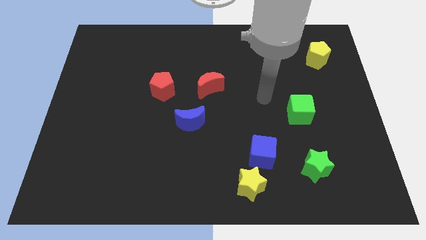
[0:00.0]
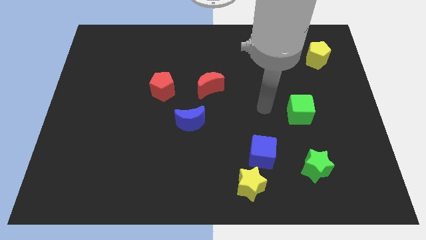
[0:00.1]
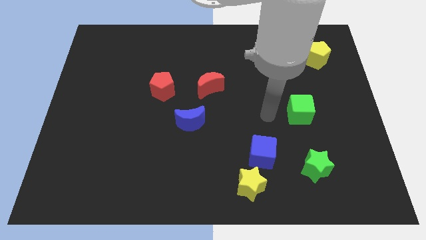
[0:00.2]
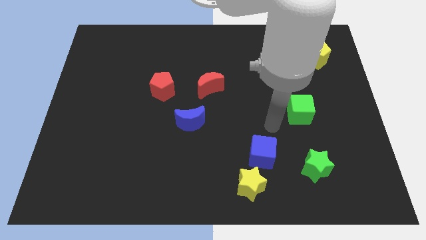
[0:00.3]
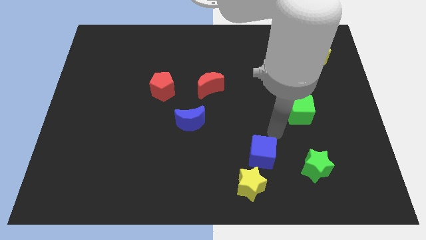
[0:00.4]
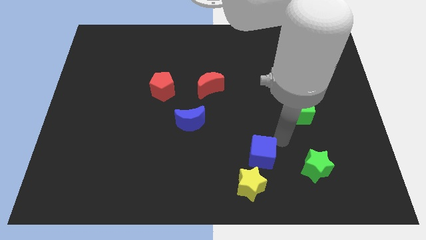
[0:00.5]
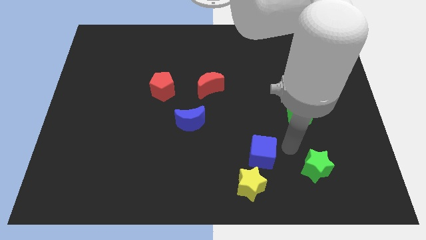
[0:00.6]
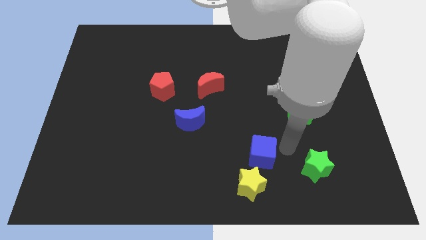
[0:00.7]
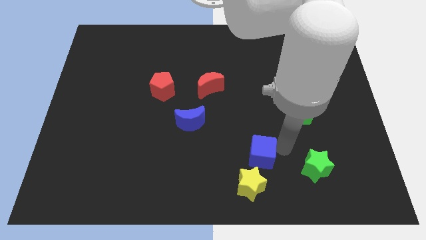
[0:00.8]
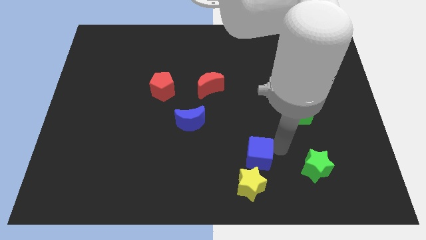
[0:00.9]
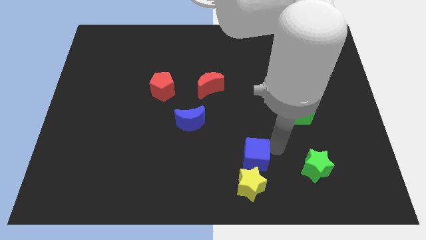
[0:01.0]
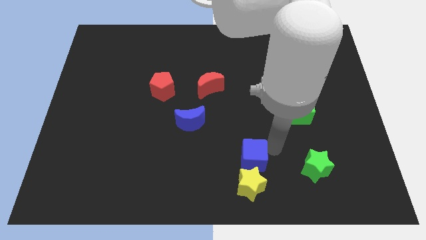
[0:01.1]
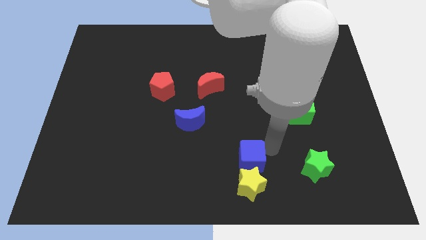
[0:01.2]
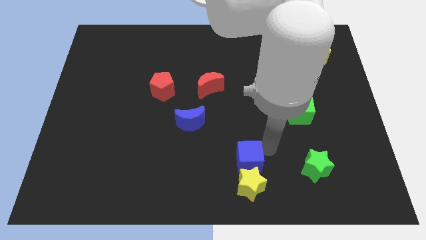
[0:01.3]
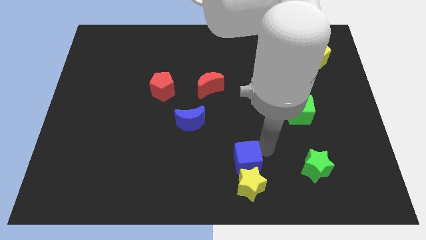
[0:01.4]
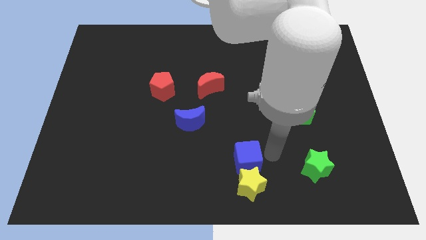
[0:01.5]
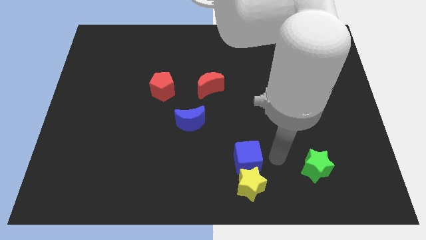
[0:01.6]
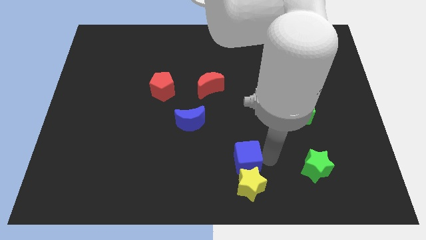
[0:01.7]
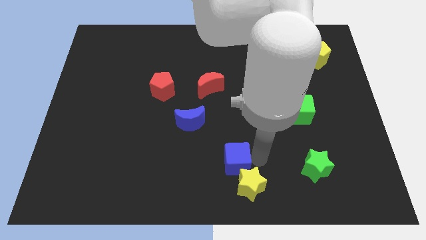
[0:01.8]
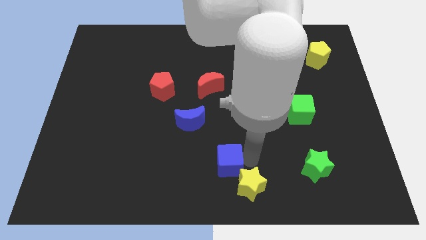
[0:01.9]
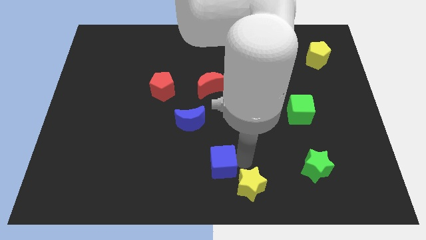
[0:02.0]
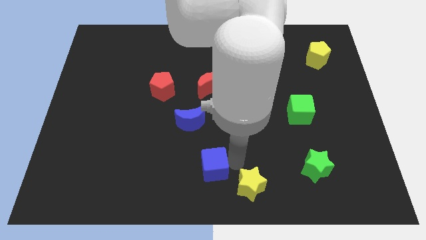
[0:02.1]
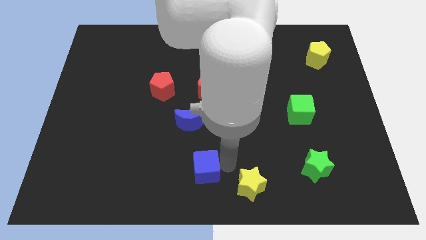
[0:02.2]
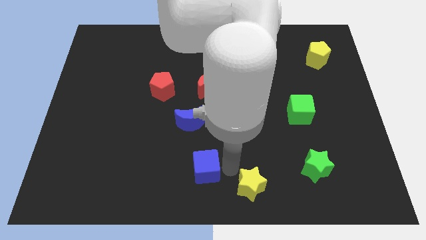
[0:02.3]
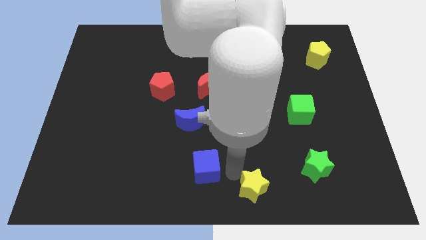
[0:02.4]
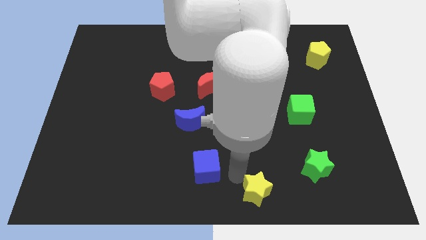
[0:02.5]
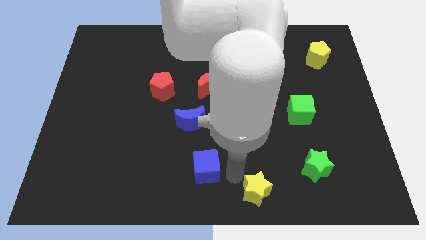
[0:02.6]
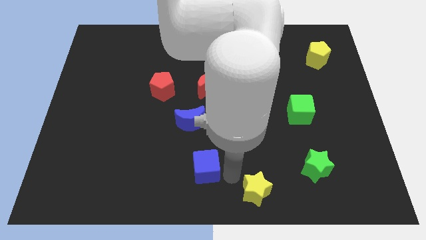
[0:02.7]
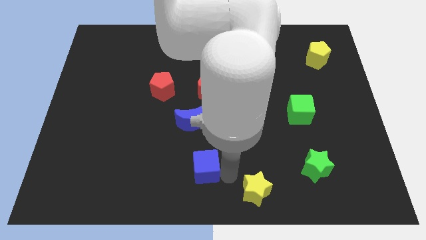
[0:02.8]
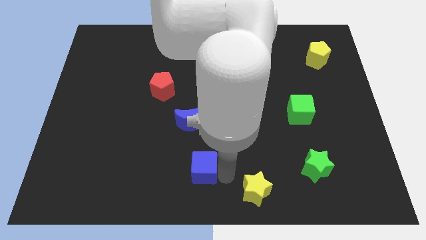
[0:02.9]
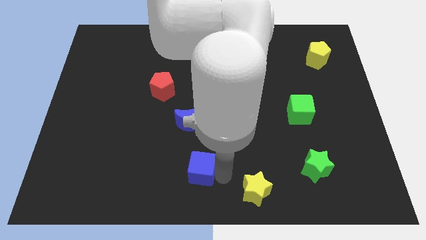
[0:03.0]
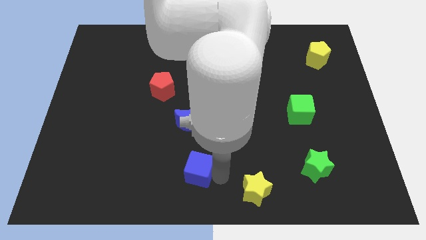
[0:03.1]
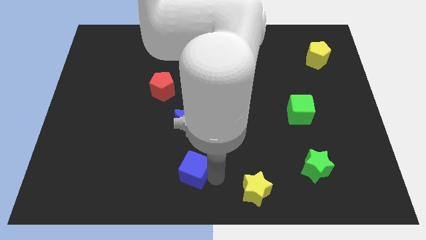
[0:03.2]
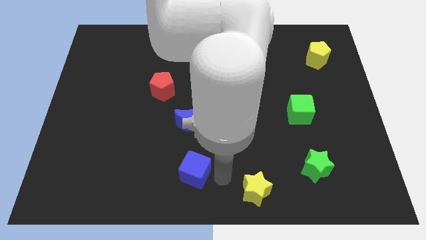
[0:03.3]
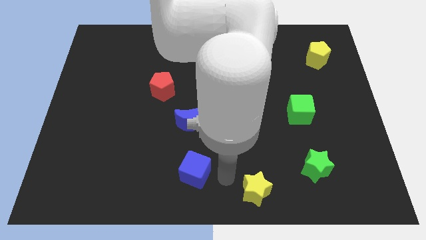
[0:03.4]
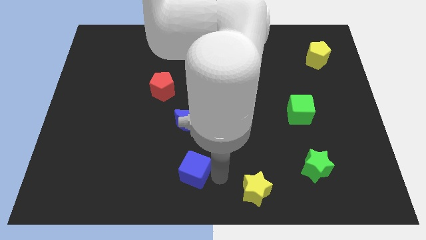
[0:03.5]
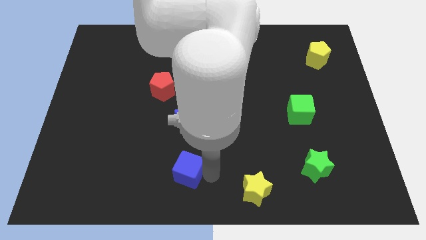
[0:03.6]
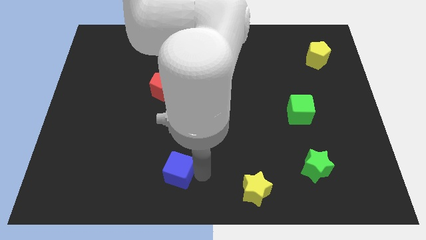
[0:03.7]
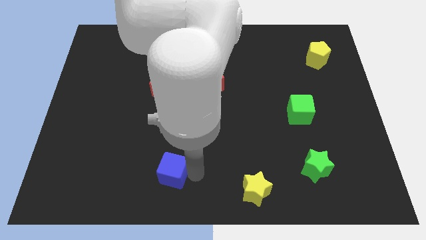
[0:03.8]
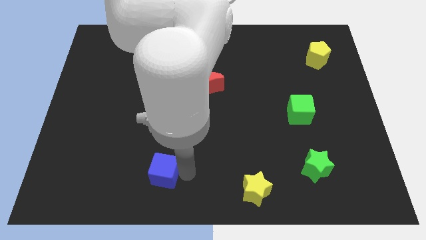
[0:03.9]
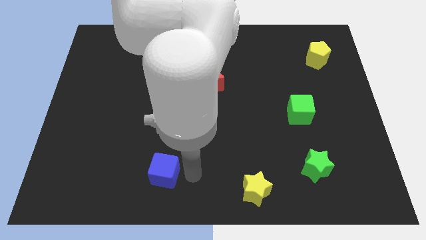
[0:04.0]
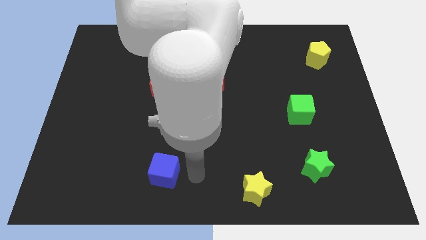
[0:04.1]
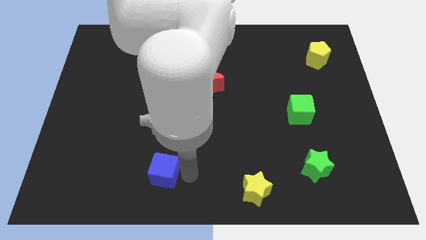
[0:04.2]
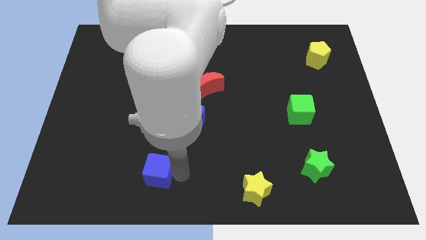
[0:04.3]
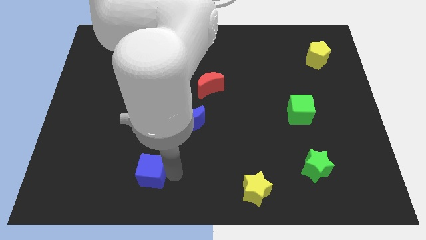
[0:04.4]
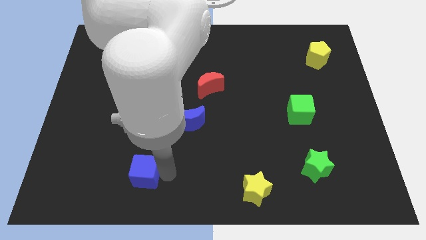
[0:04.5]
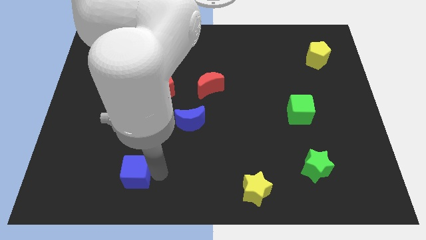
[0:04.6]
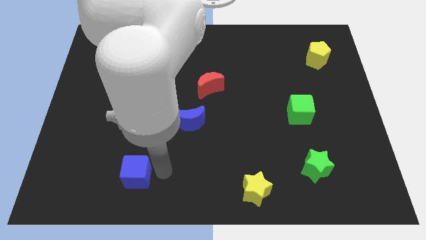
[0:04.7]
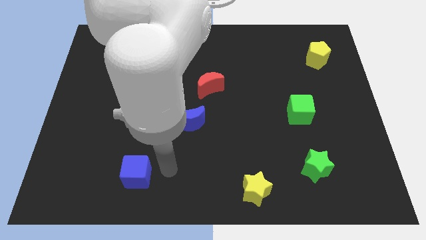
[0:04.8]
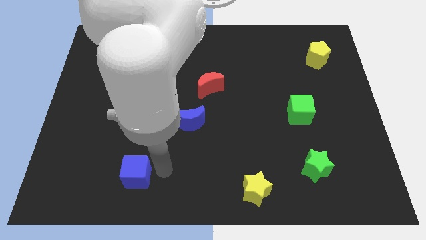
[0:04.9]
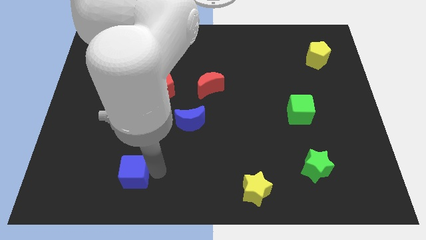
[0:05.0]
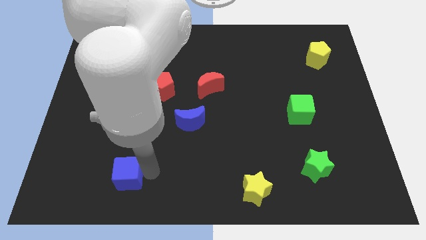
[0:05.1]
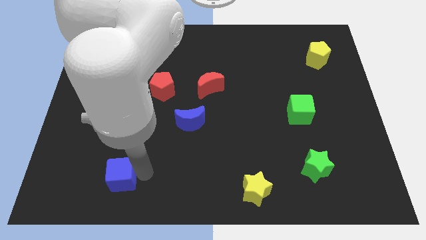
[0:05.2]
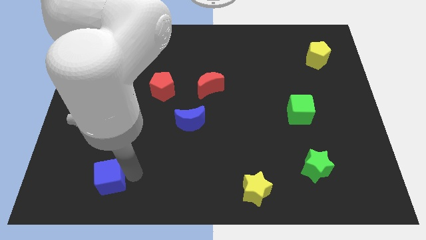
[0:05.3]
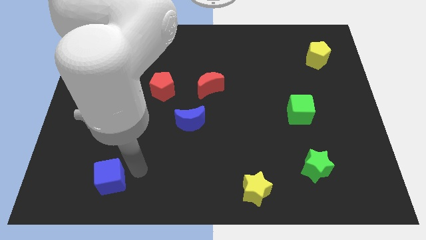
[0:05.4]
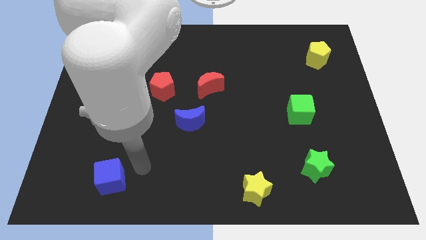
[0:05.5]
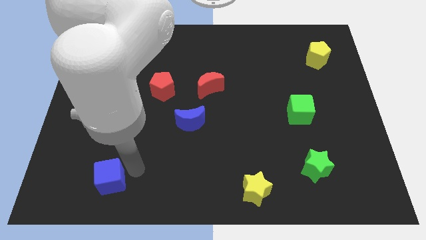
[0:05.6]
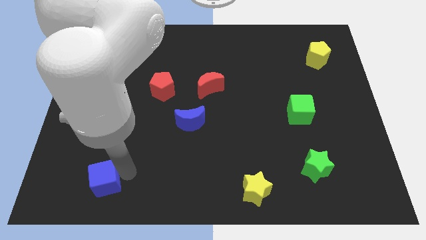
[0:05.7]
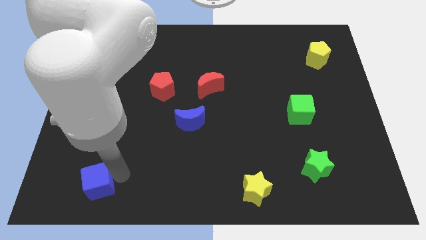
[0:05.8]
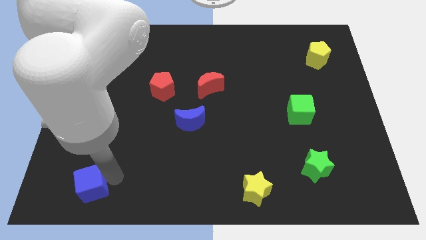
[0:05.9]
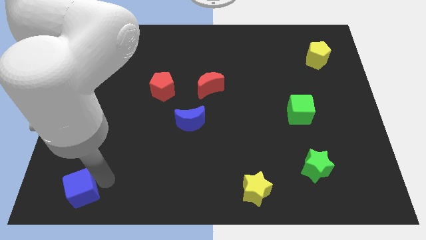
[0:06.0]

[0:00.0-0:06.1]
put the blue cube to the lower left corner
